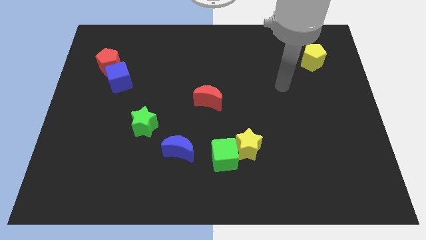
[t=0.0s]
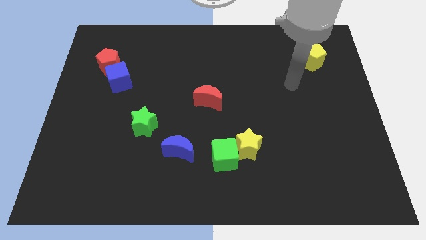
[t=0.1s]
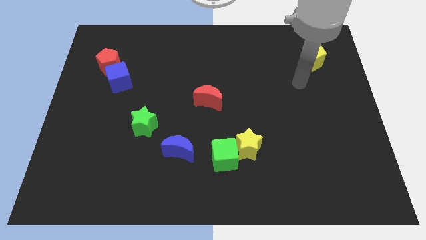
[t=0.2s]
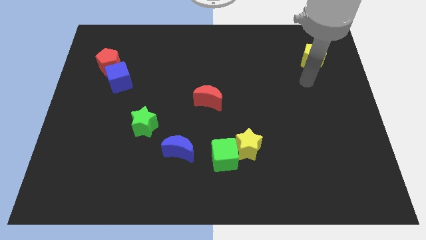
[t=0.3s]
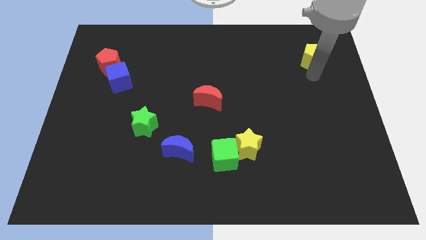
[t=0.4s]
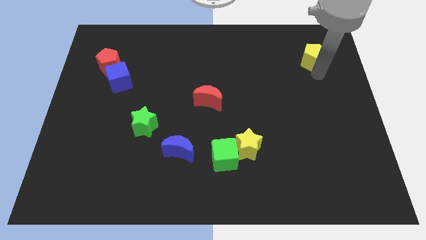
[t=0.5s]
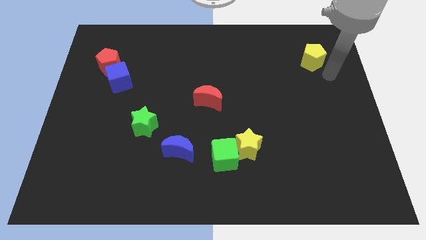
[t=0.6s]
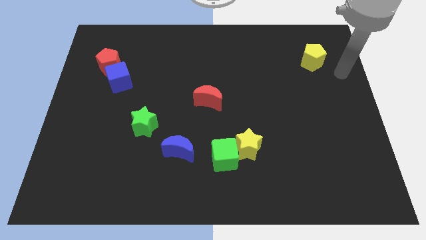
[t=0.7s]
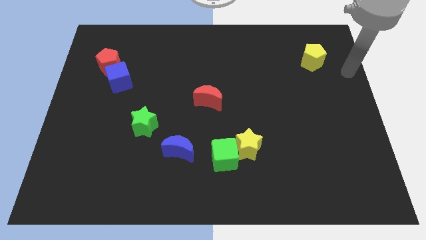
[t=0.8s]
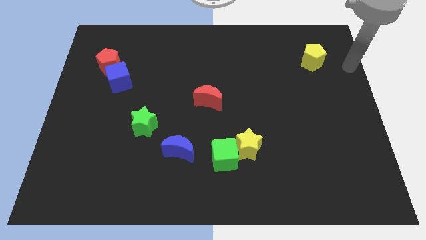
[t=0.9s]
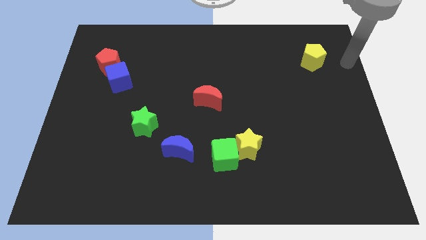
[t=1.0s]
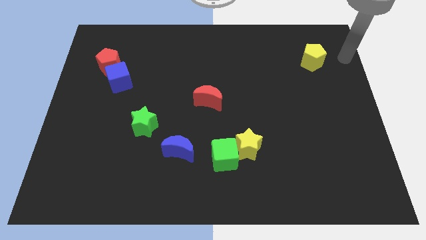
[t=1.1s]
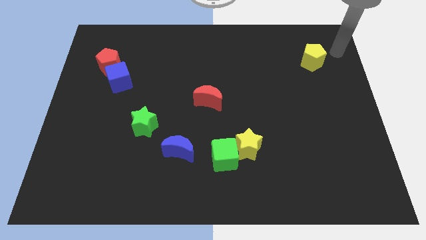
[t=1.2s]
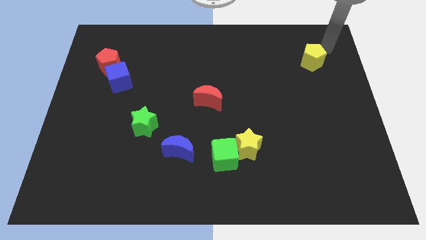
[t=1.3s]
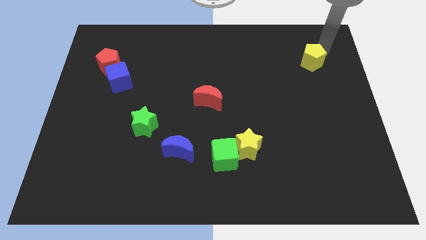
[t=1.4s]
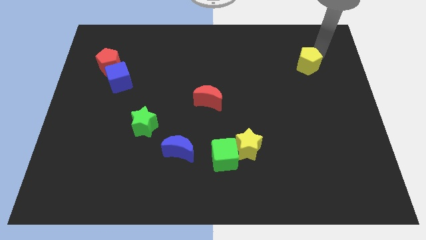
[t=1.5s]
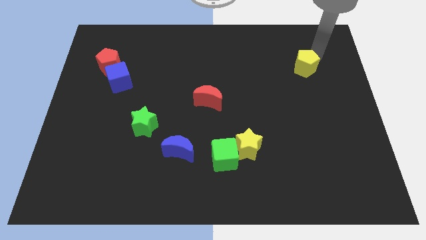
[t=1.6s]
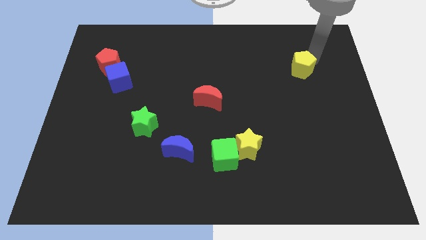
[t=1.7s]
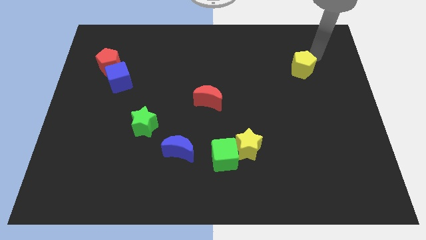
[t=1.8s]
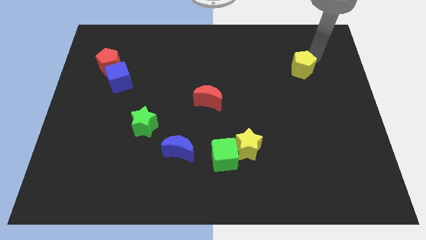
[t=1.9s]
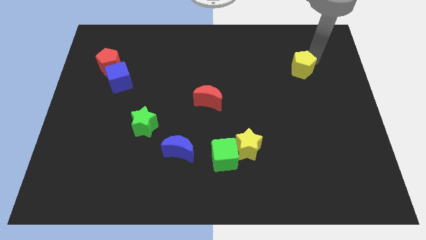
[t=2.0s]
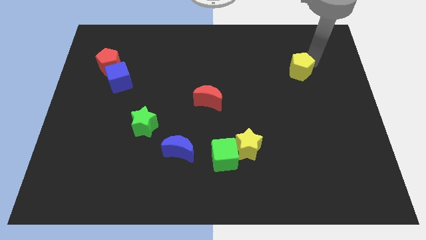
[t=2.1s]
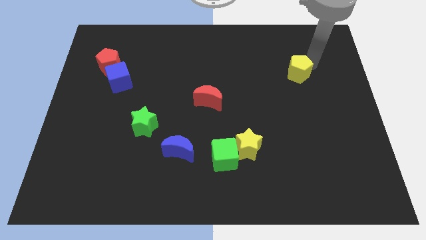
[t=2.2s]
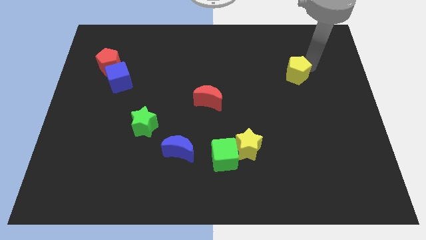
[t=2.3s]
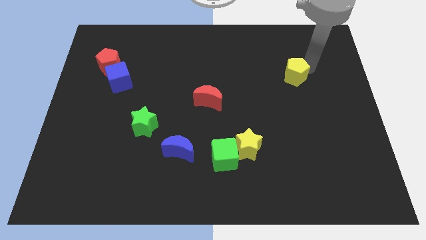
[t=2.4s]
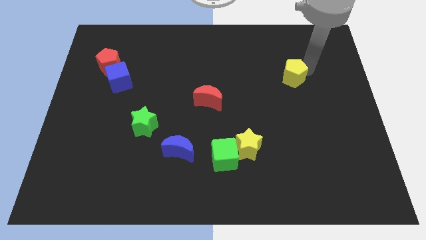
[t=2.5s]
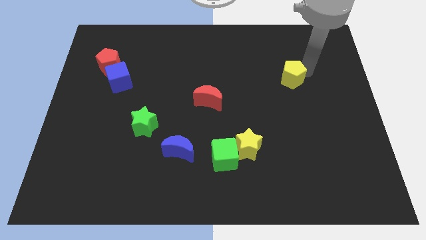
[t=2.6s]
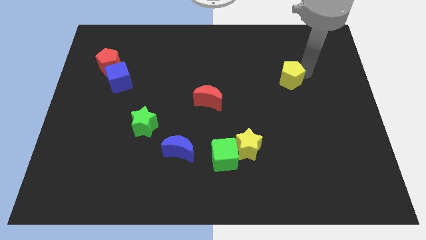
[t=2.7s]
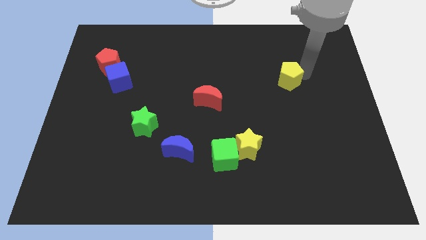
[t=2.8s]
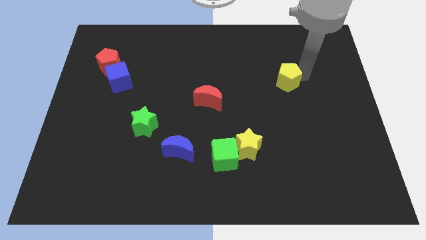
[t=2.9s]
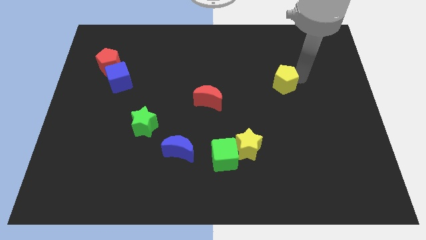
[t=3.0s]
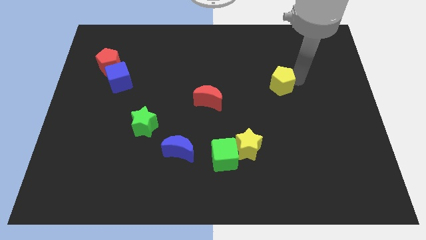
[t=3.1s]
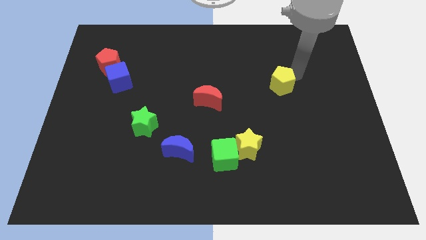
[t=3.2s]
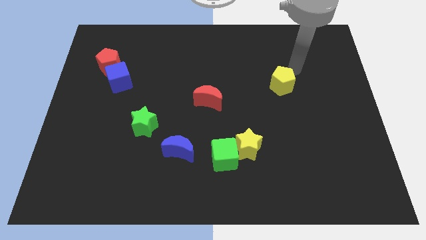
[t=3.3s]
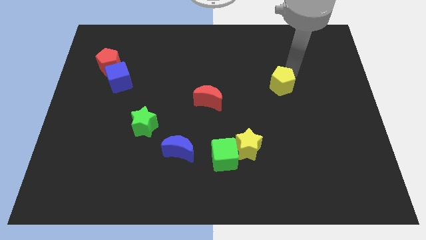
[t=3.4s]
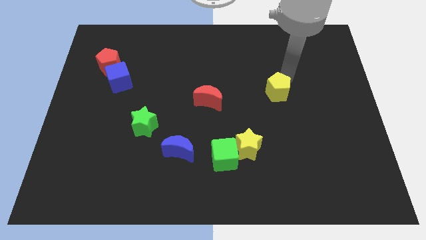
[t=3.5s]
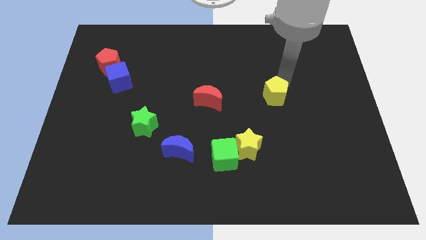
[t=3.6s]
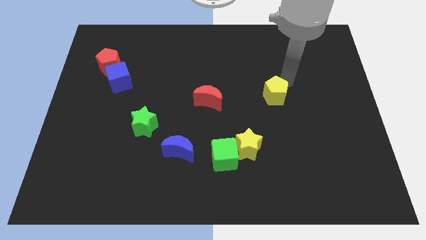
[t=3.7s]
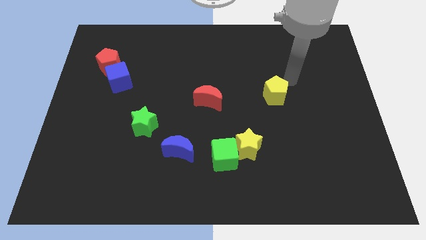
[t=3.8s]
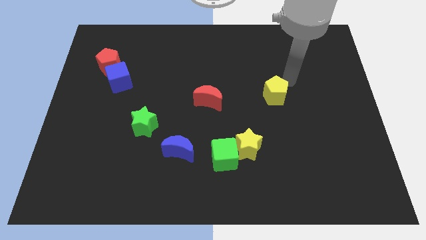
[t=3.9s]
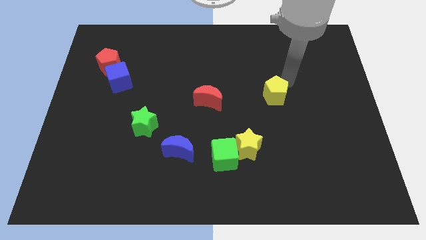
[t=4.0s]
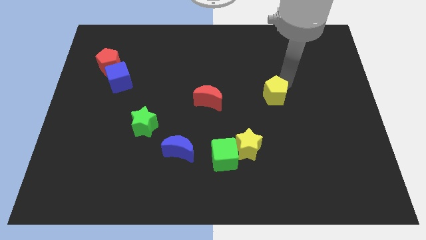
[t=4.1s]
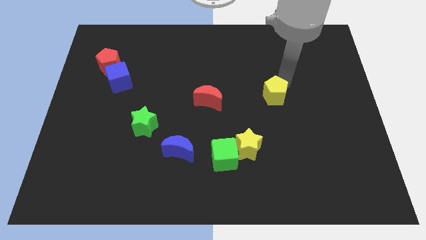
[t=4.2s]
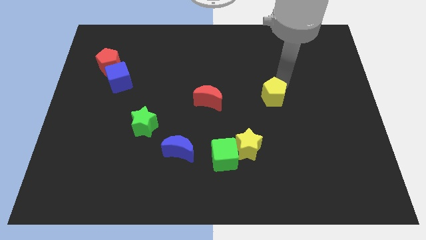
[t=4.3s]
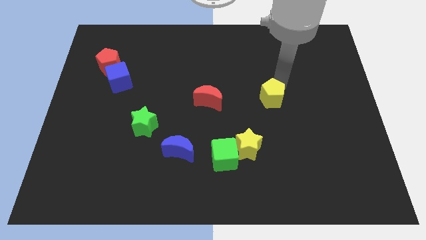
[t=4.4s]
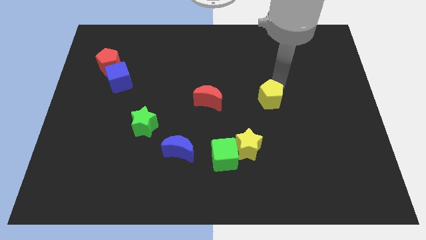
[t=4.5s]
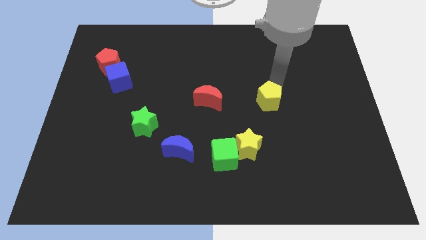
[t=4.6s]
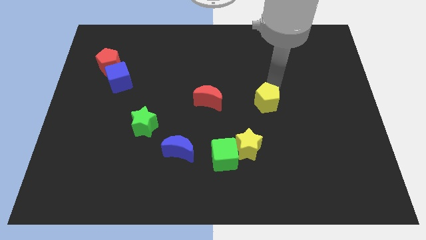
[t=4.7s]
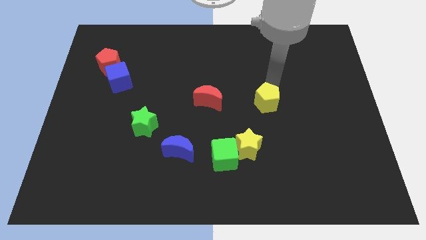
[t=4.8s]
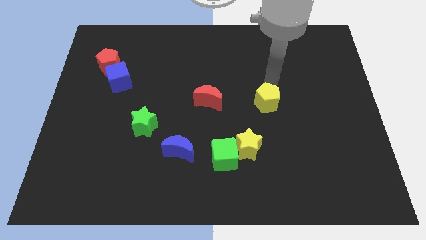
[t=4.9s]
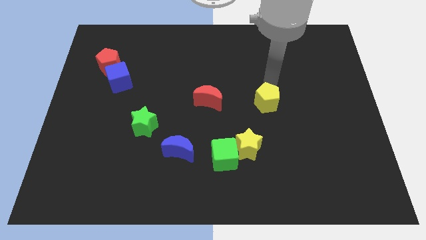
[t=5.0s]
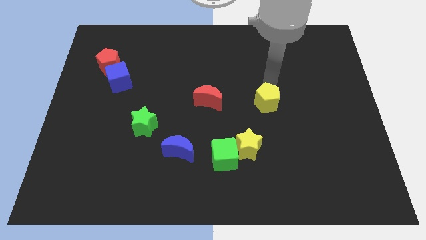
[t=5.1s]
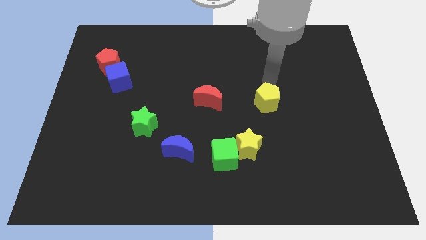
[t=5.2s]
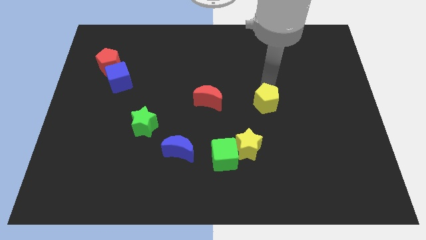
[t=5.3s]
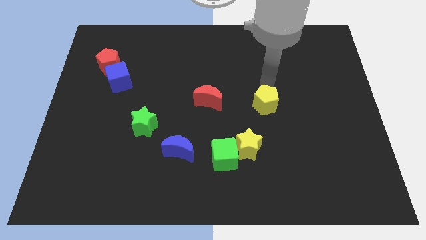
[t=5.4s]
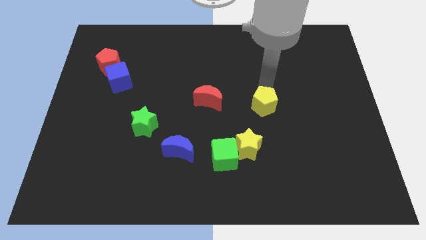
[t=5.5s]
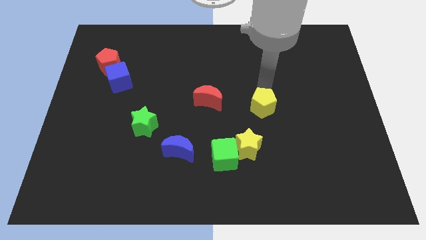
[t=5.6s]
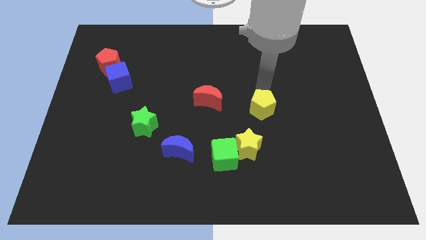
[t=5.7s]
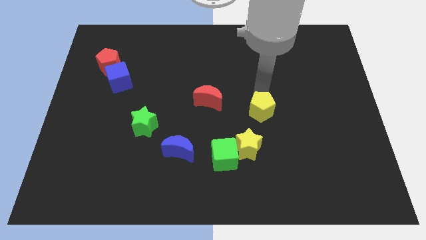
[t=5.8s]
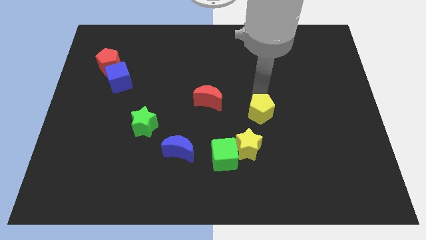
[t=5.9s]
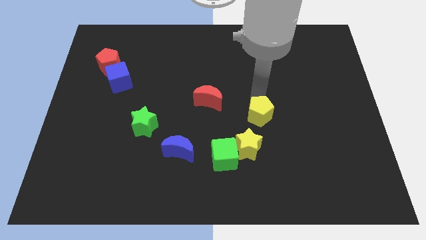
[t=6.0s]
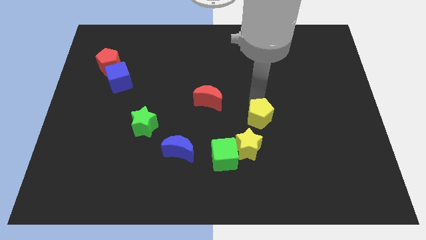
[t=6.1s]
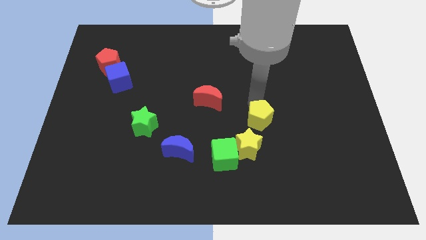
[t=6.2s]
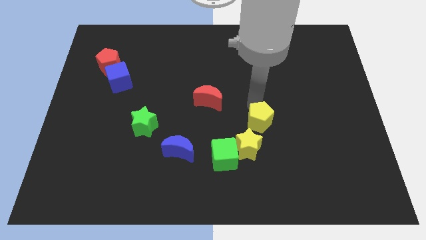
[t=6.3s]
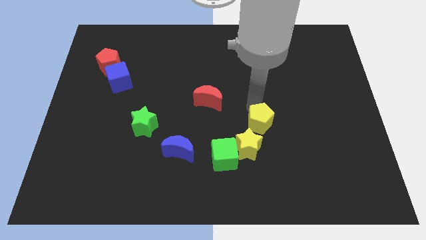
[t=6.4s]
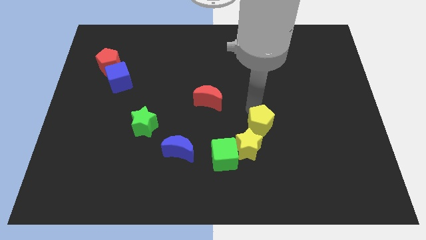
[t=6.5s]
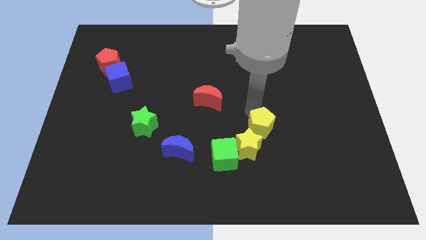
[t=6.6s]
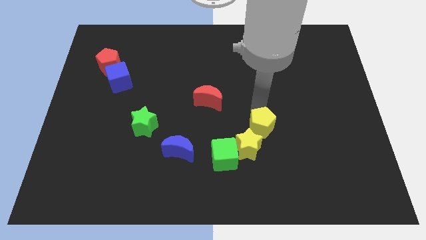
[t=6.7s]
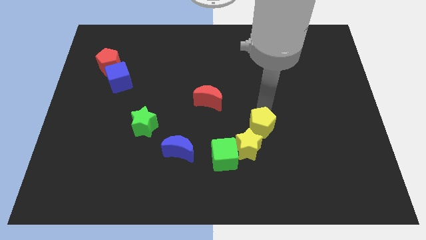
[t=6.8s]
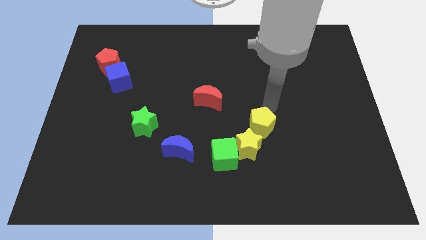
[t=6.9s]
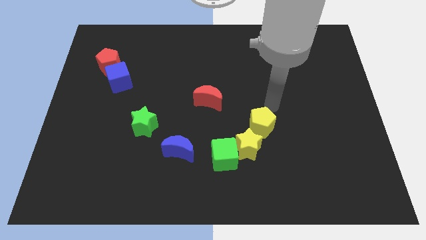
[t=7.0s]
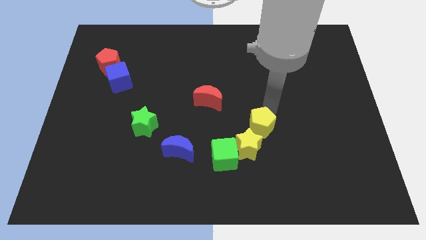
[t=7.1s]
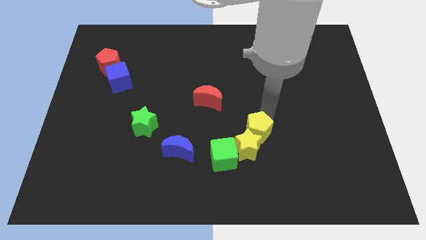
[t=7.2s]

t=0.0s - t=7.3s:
slide the yellow pentagon towards the yellow star
